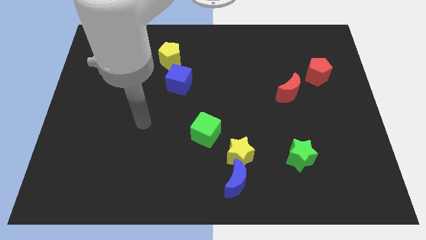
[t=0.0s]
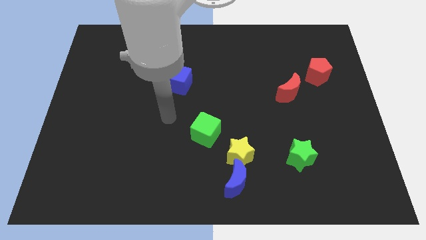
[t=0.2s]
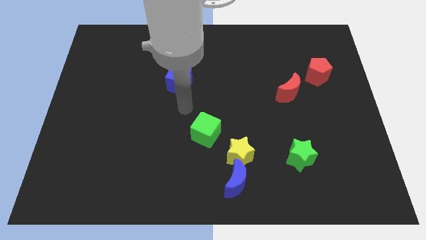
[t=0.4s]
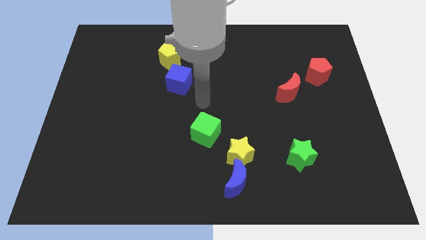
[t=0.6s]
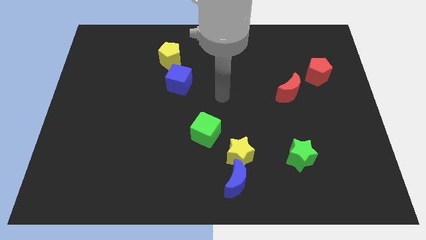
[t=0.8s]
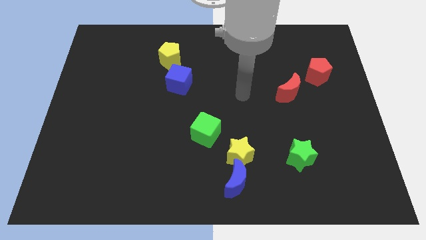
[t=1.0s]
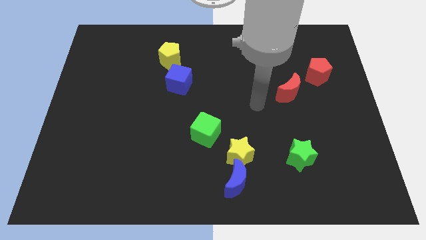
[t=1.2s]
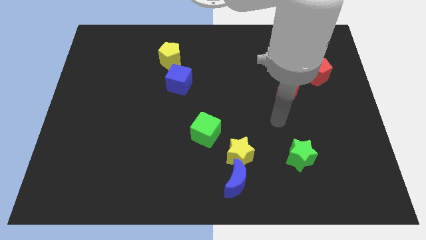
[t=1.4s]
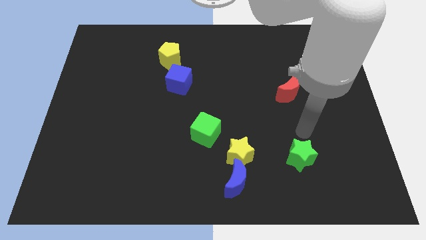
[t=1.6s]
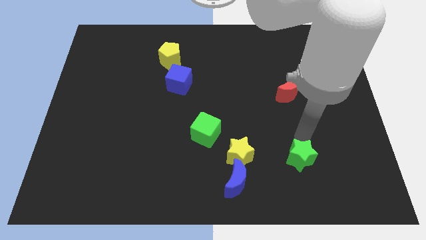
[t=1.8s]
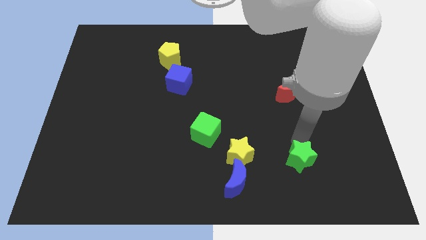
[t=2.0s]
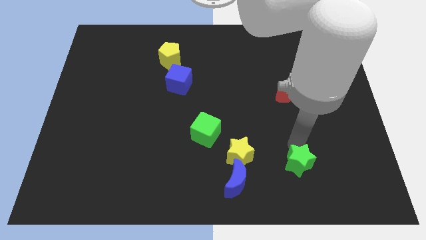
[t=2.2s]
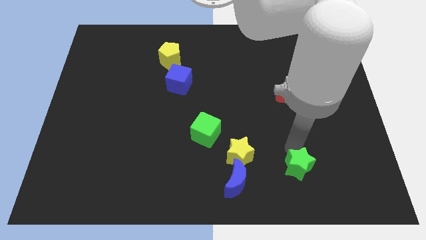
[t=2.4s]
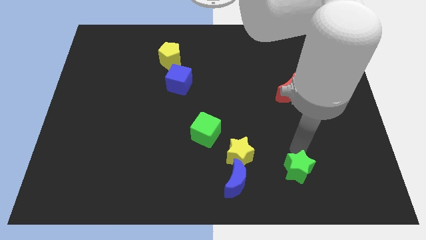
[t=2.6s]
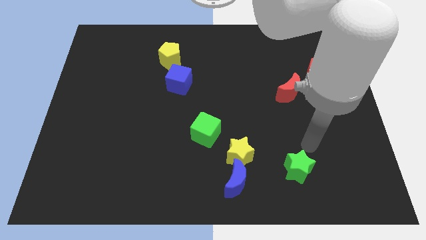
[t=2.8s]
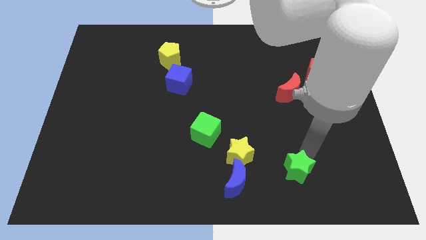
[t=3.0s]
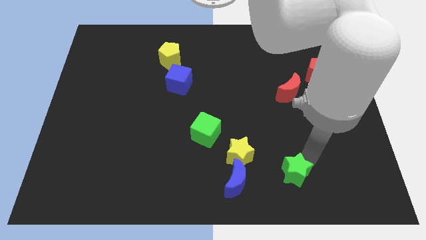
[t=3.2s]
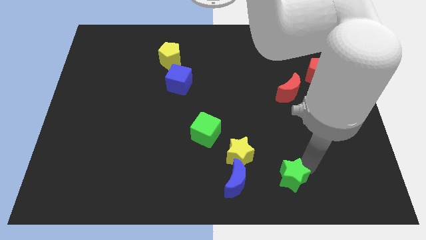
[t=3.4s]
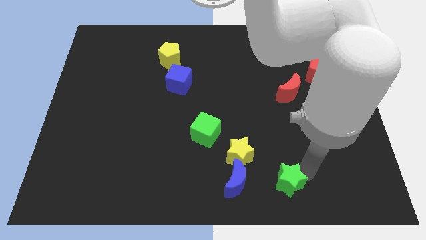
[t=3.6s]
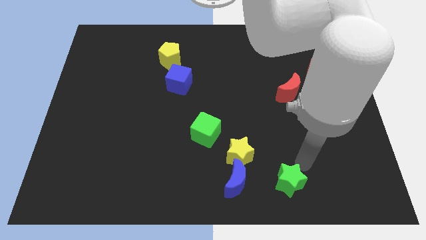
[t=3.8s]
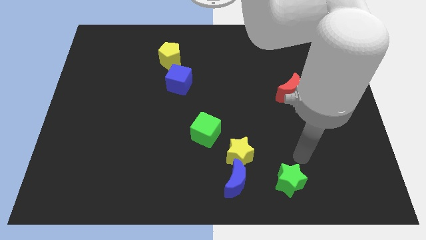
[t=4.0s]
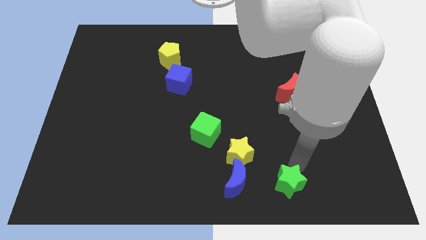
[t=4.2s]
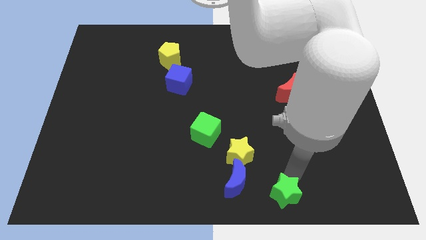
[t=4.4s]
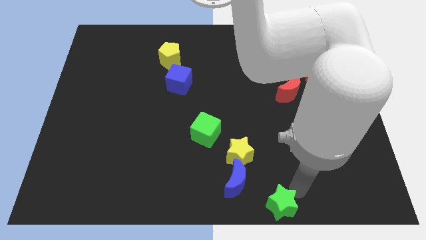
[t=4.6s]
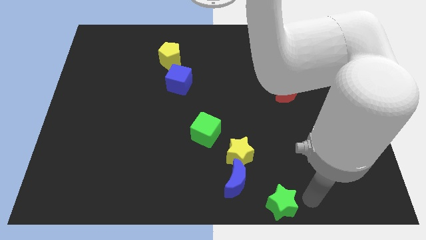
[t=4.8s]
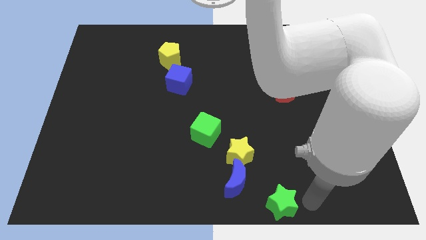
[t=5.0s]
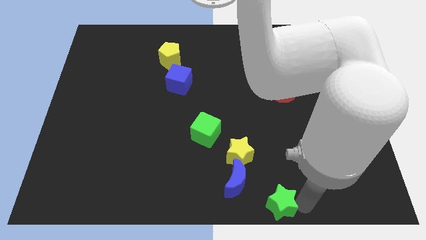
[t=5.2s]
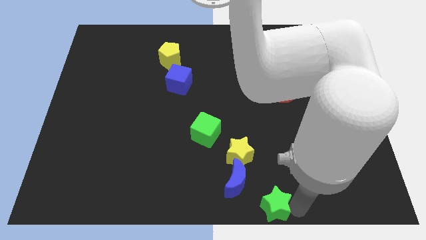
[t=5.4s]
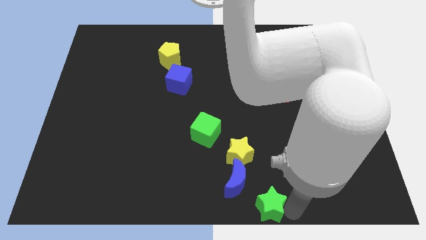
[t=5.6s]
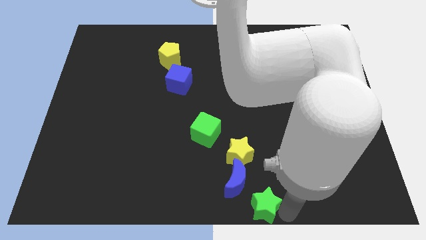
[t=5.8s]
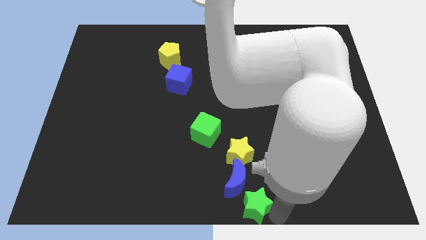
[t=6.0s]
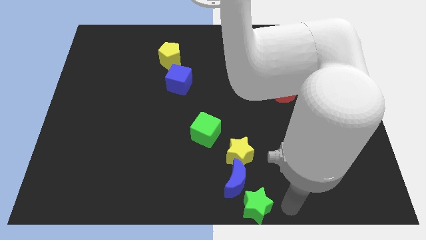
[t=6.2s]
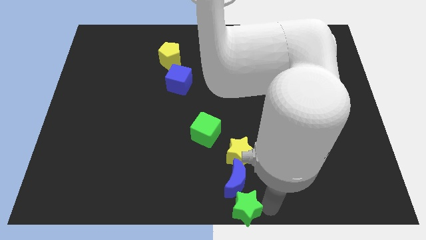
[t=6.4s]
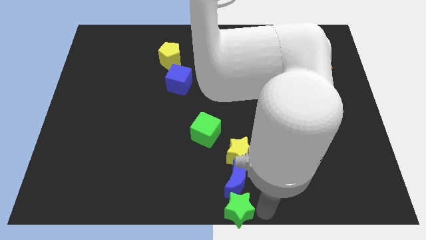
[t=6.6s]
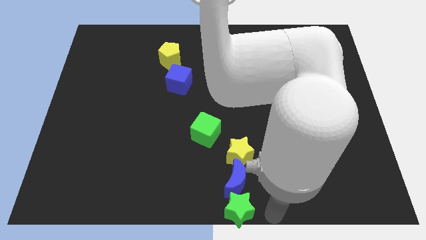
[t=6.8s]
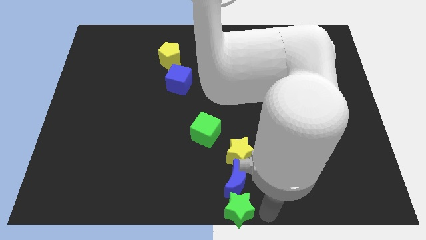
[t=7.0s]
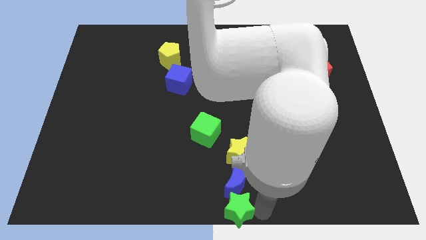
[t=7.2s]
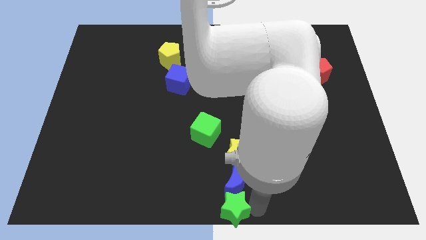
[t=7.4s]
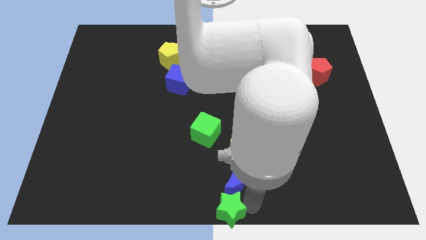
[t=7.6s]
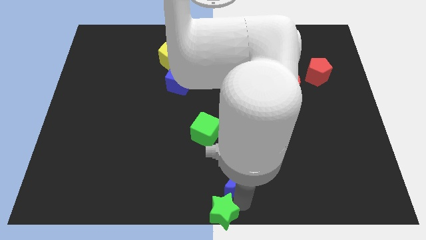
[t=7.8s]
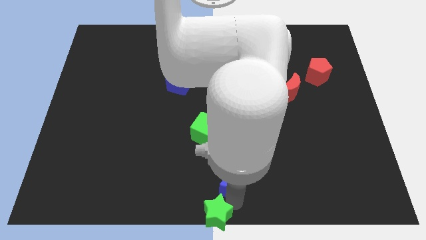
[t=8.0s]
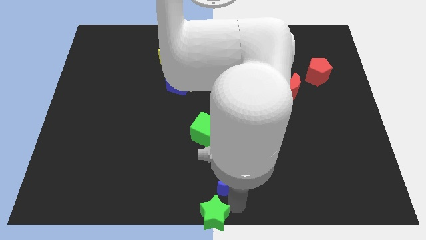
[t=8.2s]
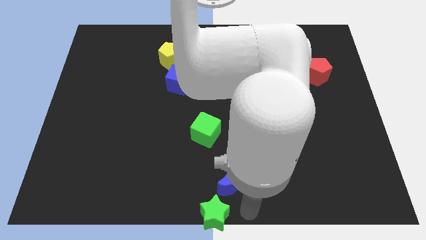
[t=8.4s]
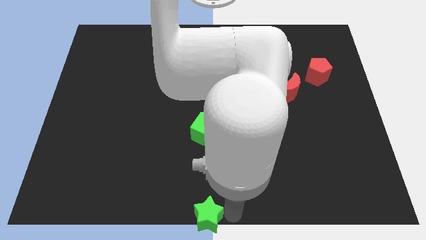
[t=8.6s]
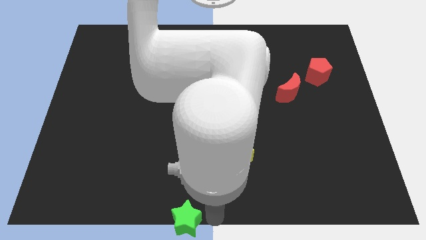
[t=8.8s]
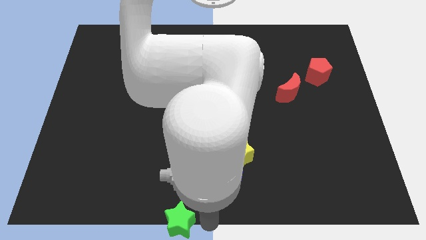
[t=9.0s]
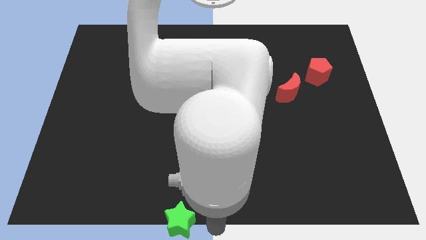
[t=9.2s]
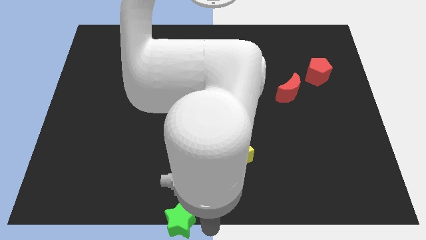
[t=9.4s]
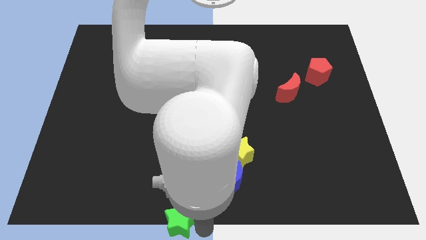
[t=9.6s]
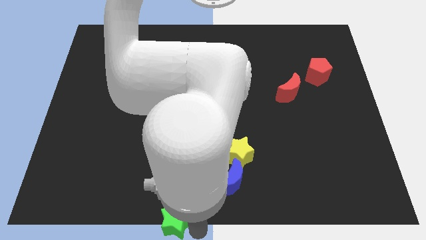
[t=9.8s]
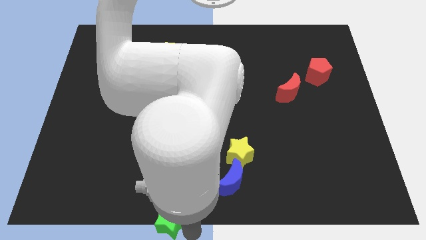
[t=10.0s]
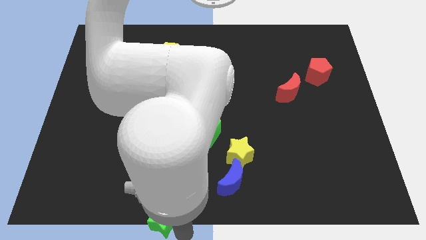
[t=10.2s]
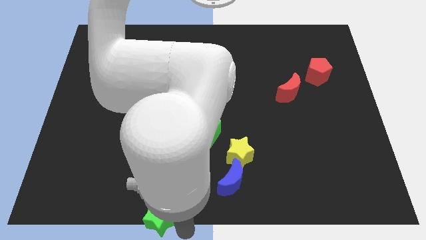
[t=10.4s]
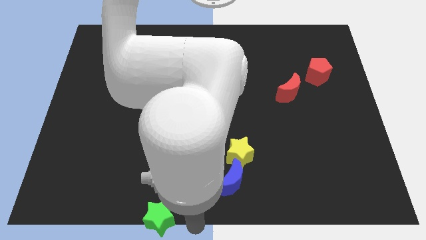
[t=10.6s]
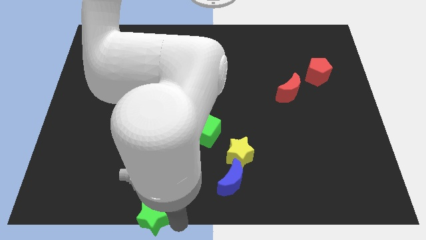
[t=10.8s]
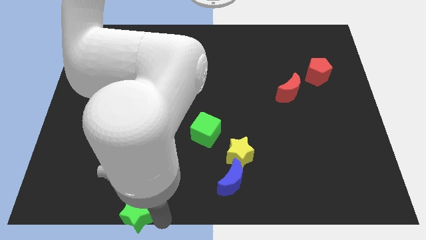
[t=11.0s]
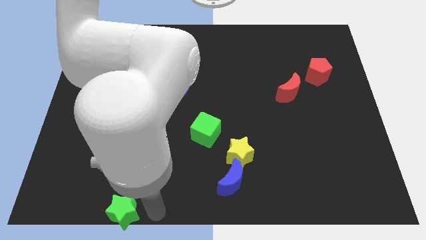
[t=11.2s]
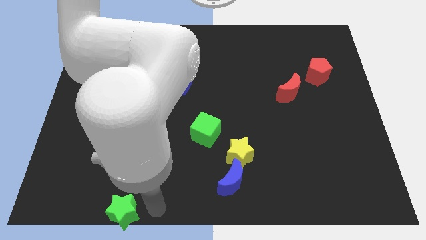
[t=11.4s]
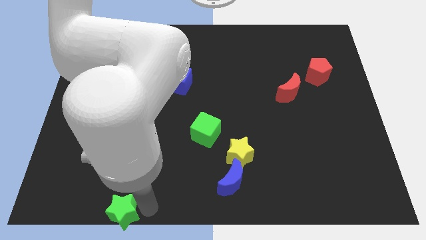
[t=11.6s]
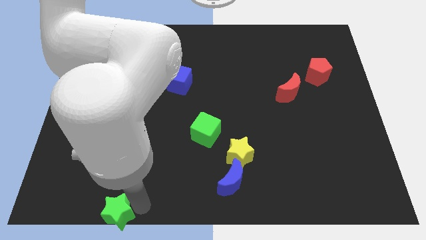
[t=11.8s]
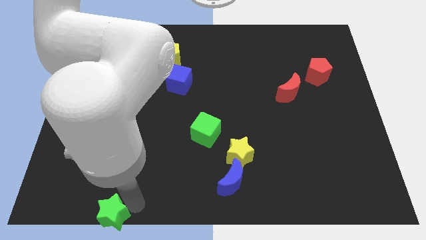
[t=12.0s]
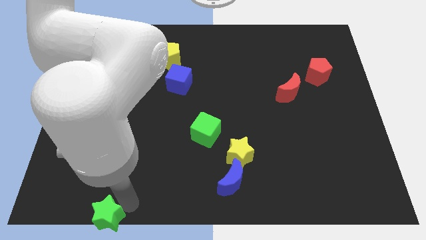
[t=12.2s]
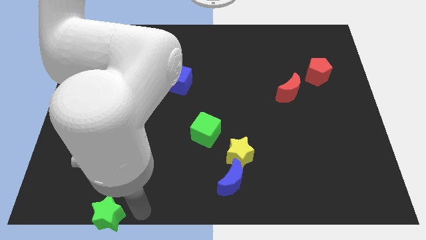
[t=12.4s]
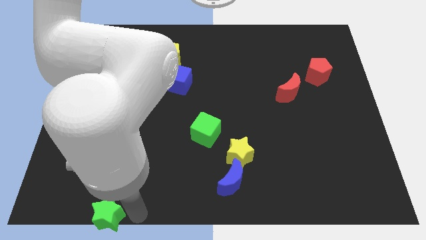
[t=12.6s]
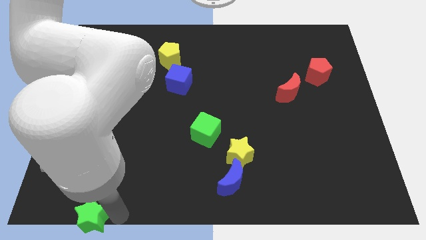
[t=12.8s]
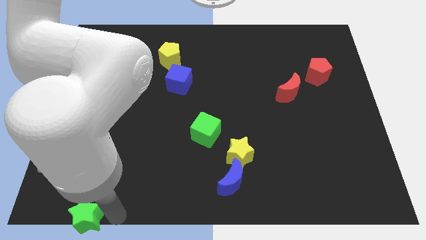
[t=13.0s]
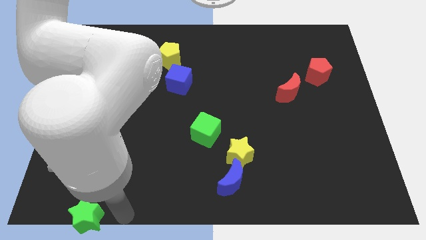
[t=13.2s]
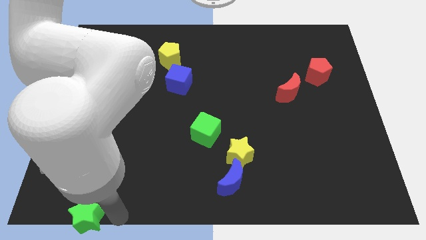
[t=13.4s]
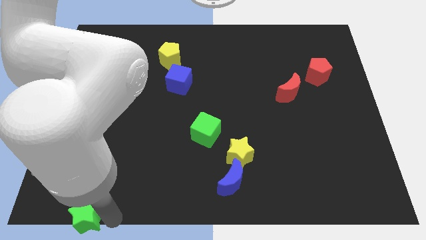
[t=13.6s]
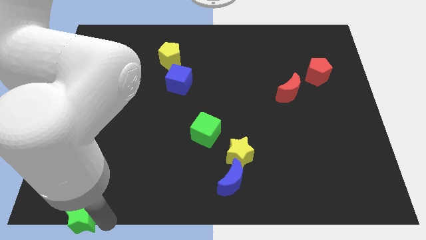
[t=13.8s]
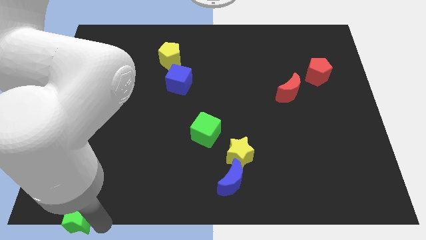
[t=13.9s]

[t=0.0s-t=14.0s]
slide the green star to the lower left corner
